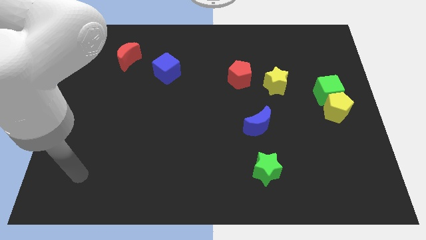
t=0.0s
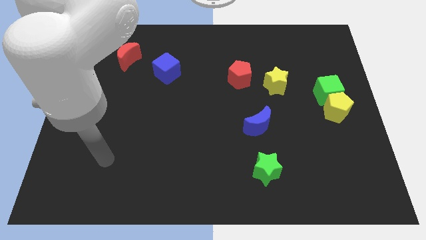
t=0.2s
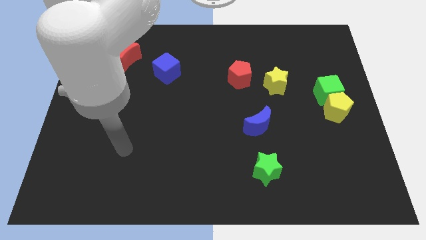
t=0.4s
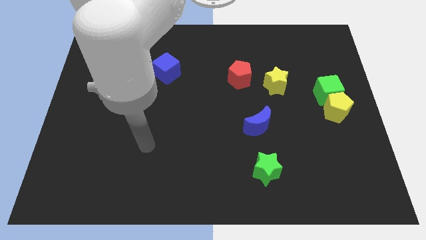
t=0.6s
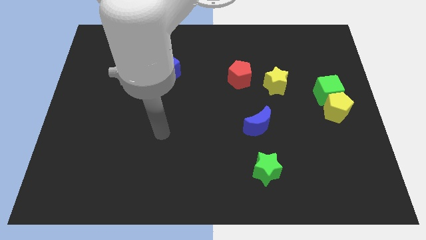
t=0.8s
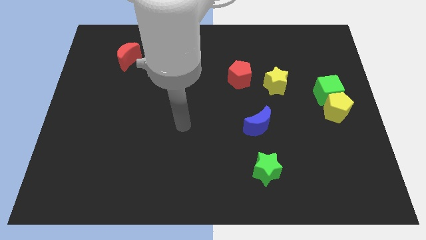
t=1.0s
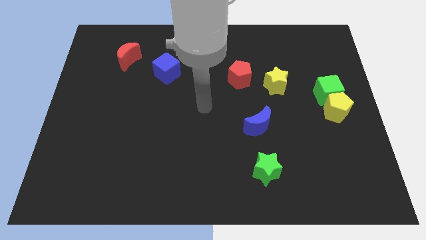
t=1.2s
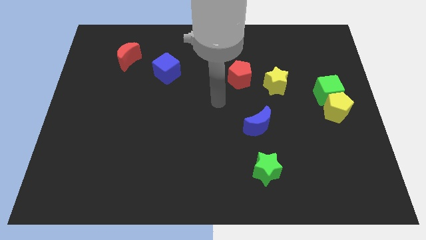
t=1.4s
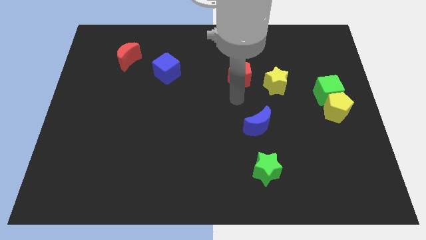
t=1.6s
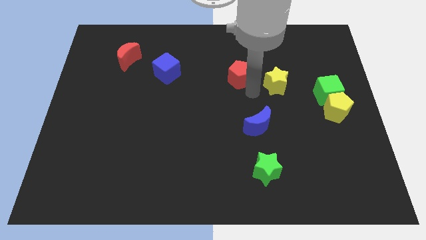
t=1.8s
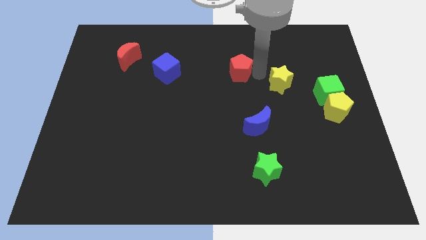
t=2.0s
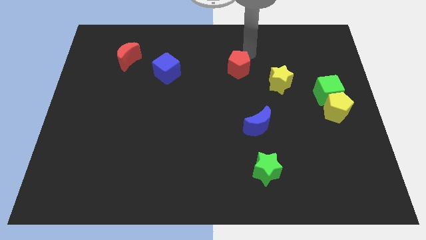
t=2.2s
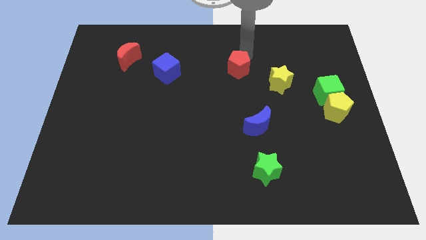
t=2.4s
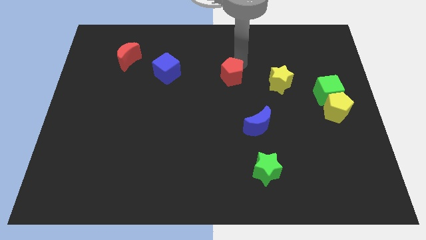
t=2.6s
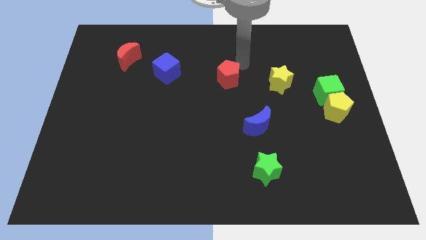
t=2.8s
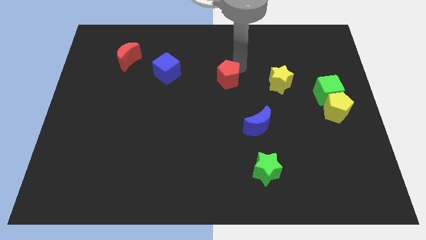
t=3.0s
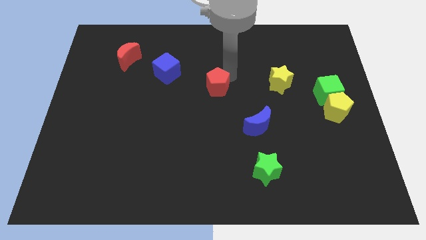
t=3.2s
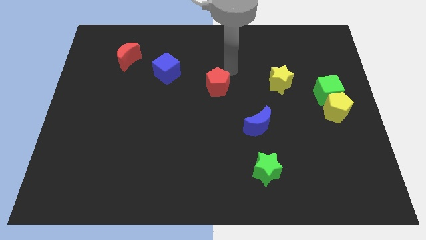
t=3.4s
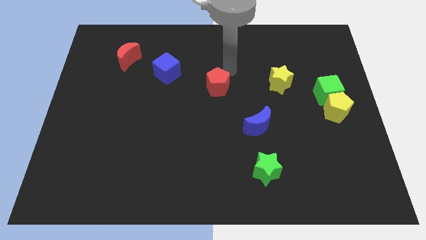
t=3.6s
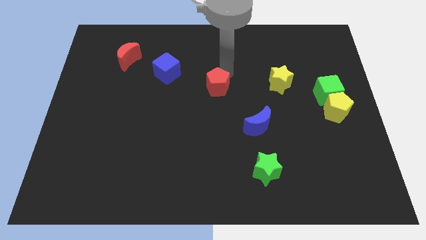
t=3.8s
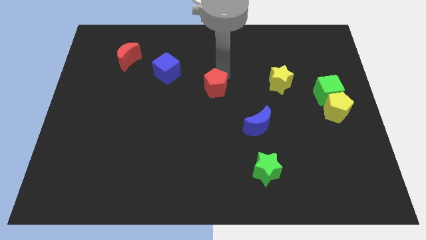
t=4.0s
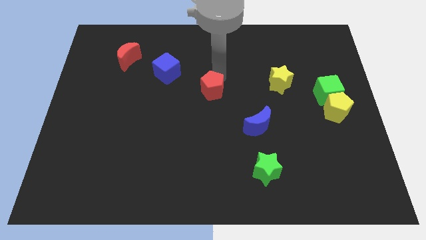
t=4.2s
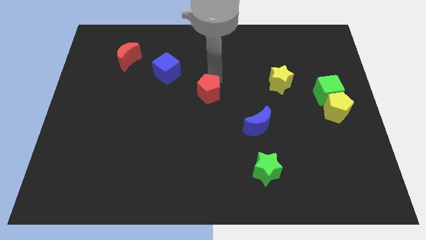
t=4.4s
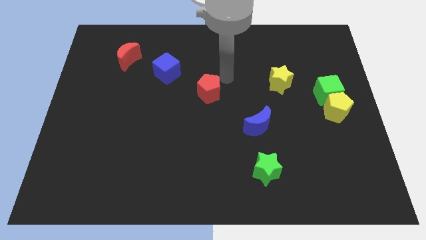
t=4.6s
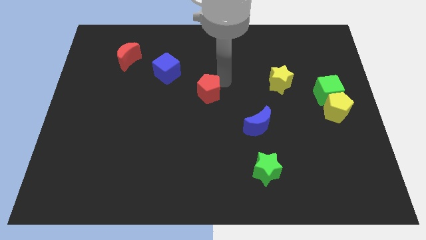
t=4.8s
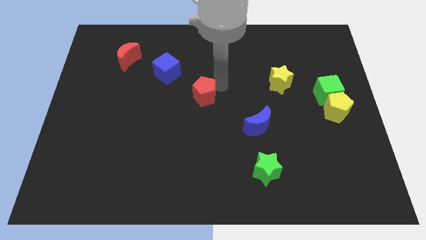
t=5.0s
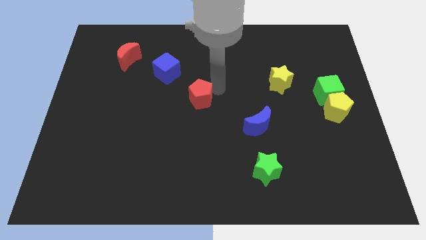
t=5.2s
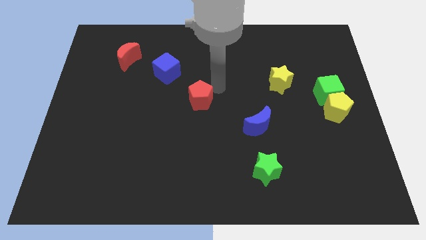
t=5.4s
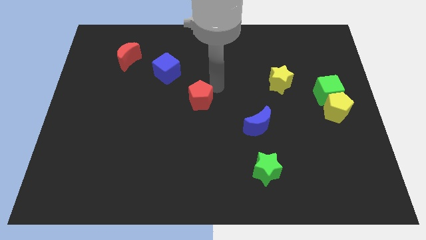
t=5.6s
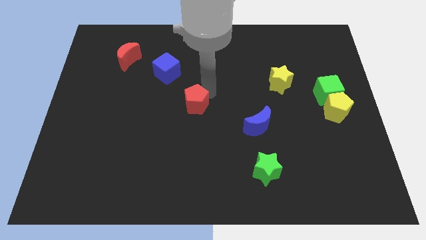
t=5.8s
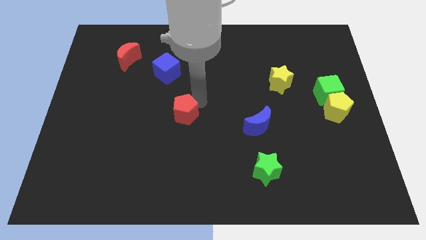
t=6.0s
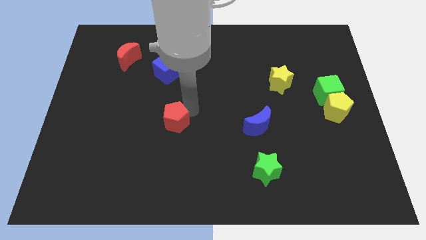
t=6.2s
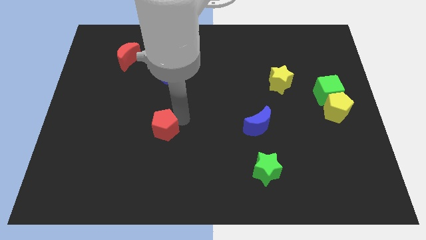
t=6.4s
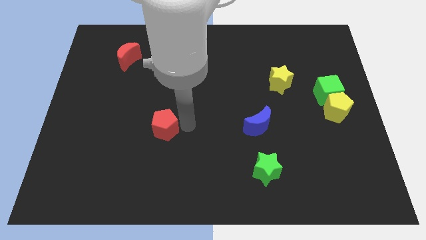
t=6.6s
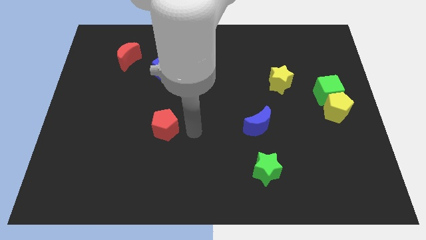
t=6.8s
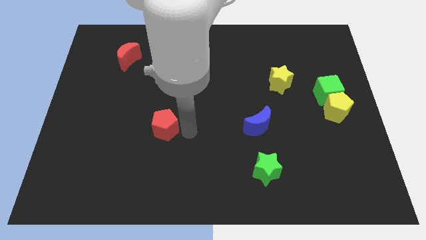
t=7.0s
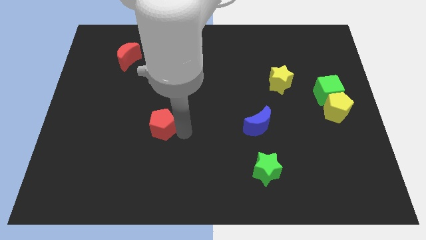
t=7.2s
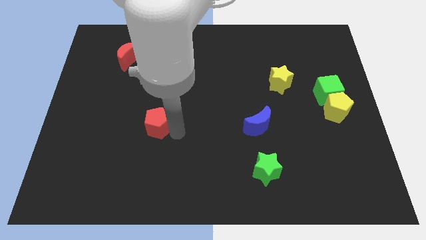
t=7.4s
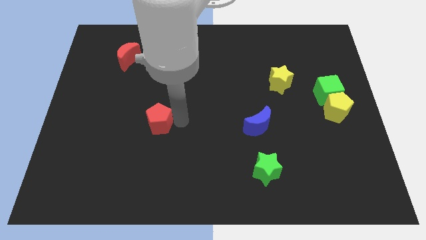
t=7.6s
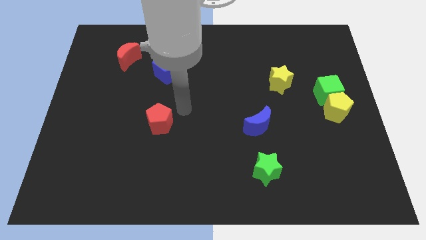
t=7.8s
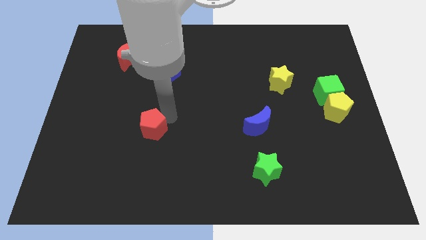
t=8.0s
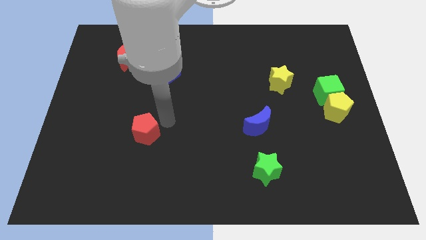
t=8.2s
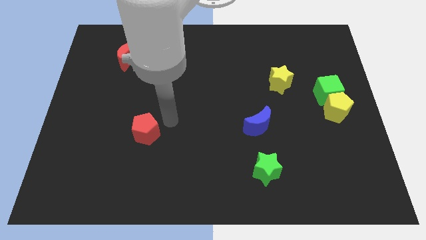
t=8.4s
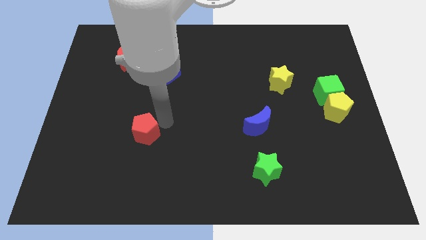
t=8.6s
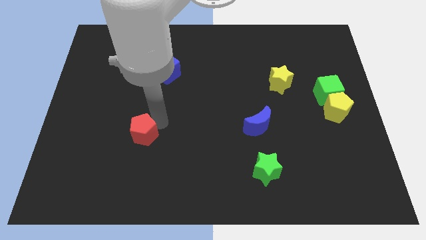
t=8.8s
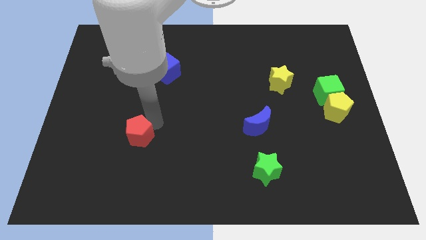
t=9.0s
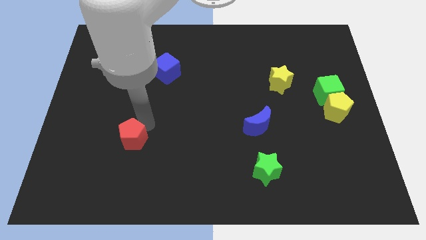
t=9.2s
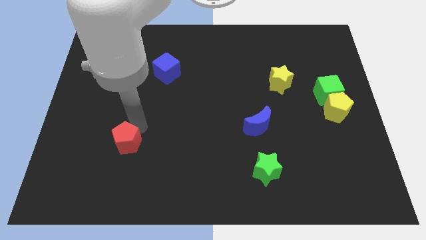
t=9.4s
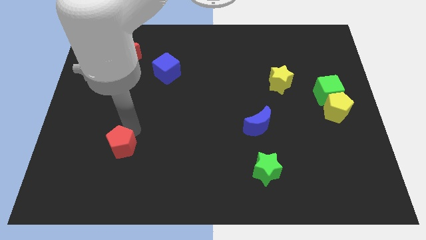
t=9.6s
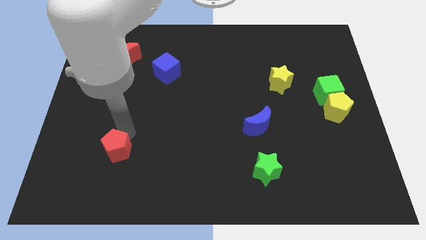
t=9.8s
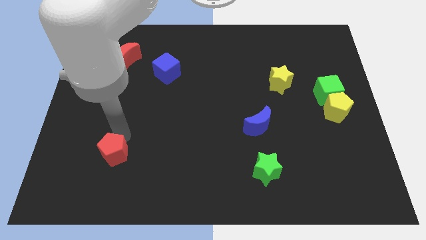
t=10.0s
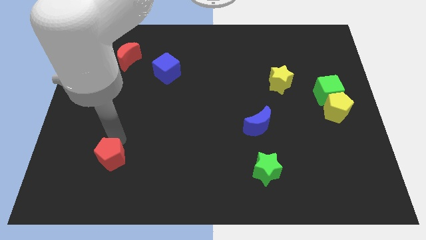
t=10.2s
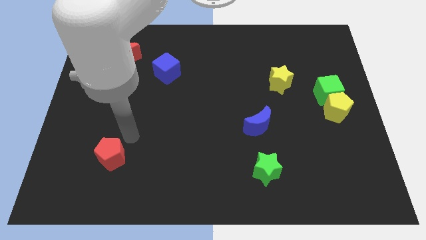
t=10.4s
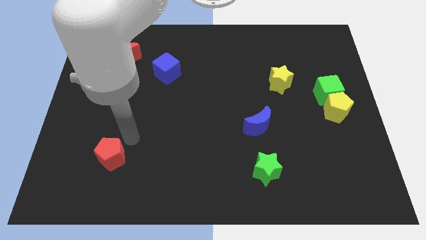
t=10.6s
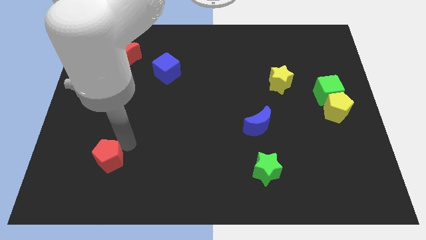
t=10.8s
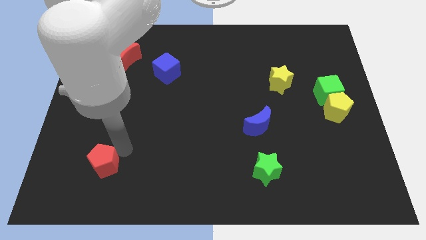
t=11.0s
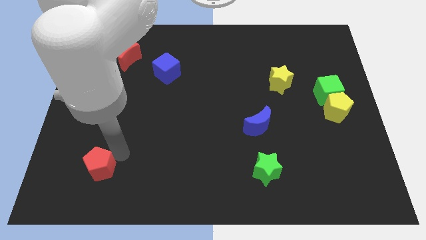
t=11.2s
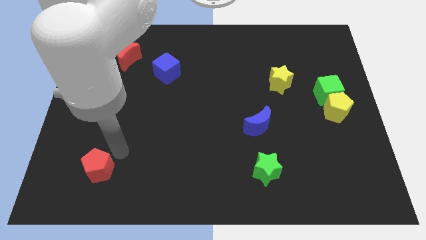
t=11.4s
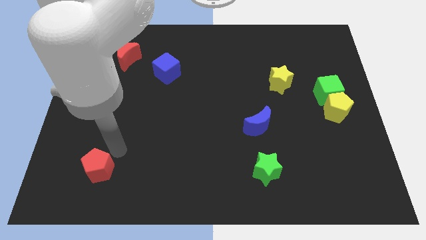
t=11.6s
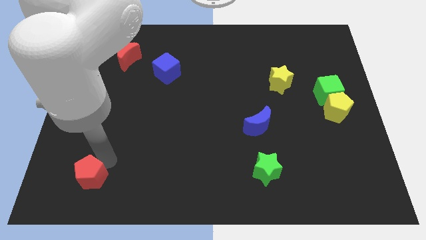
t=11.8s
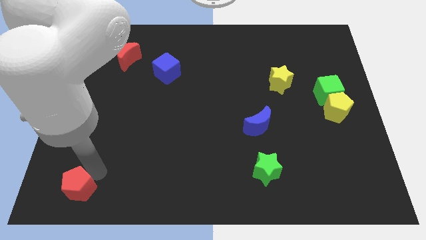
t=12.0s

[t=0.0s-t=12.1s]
slide the red pentagon to the lower left corner
